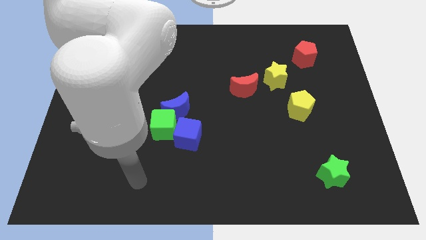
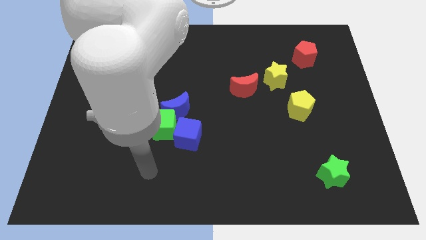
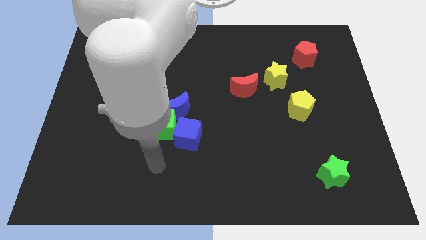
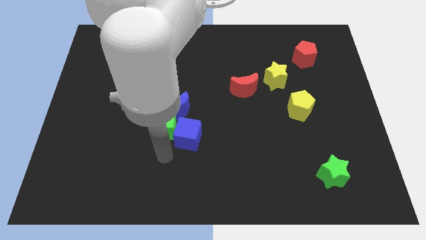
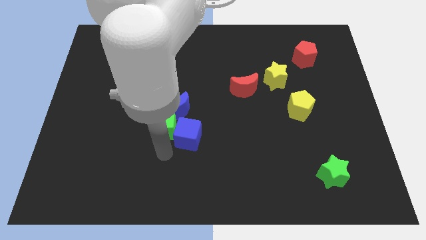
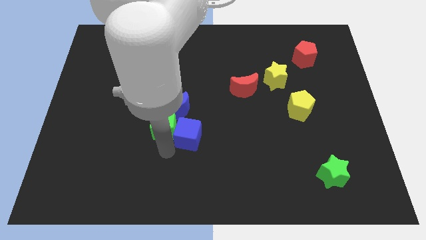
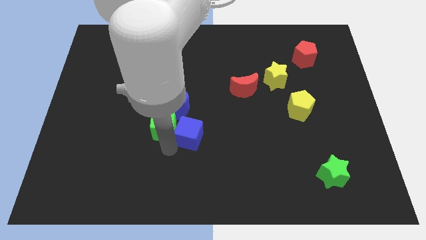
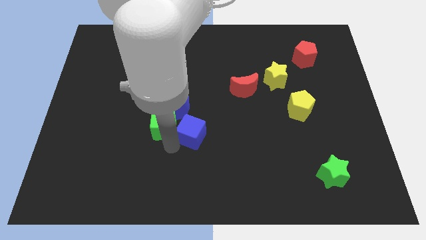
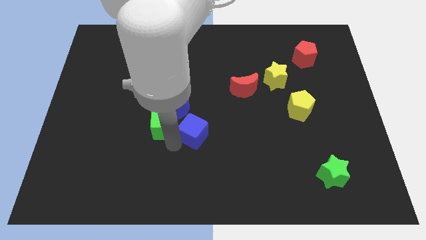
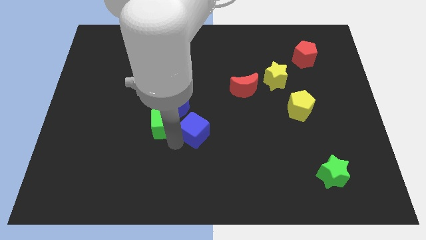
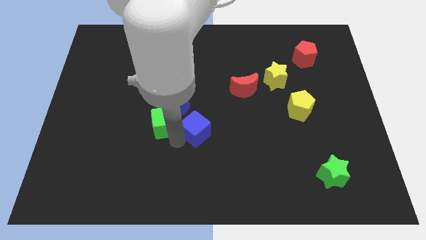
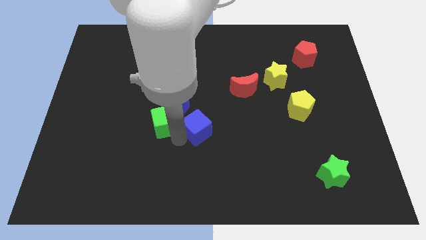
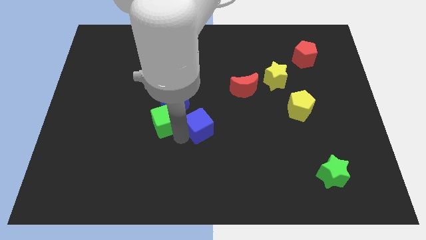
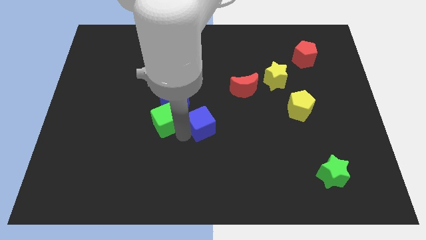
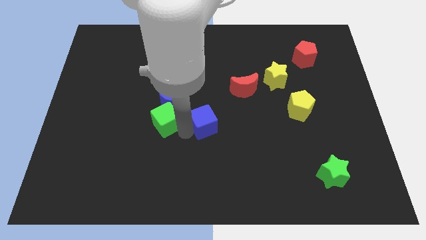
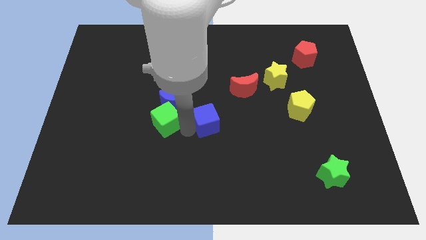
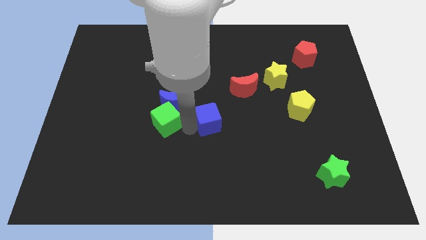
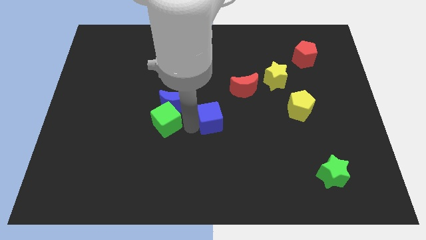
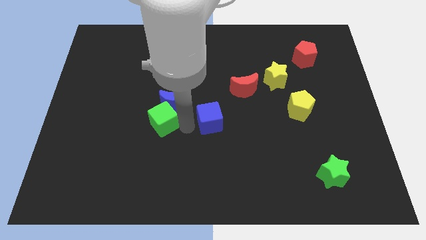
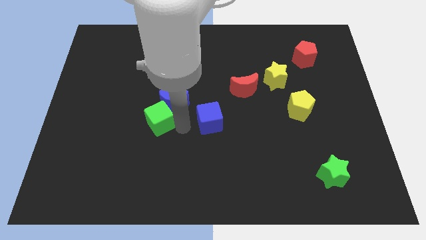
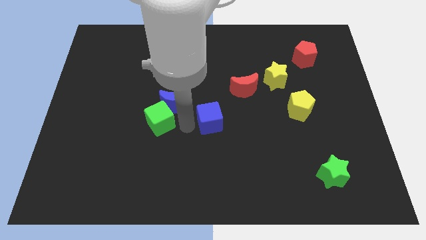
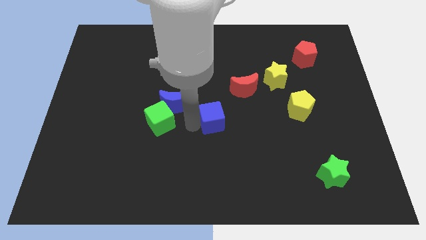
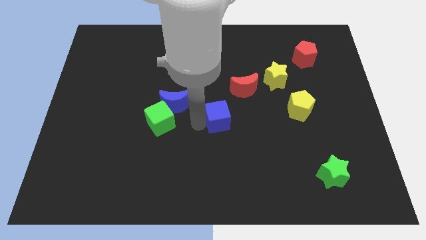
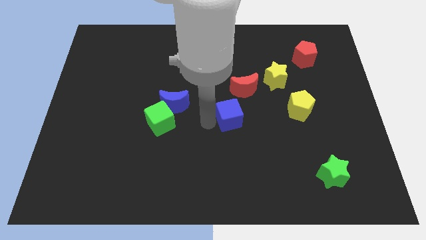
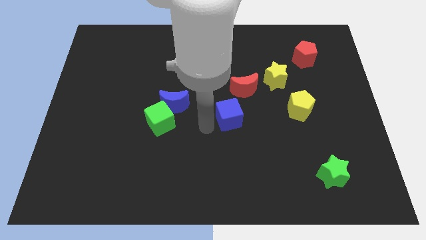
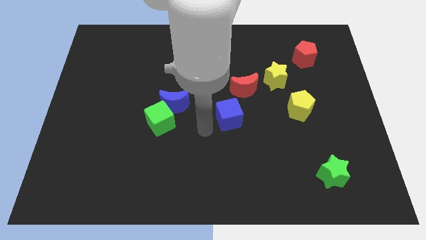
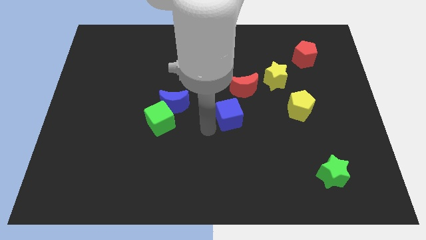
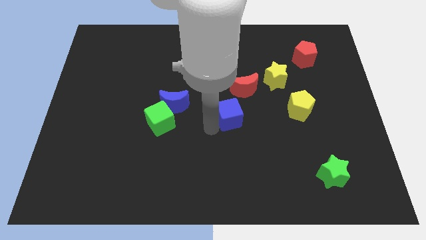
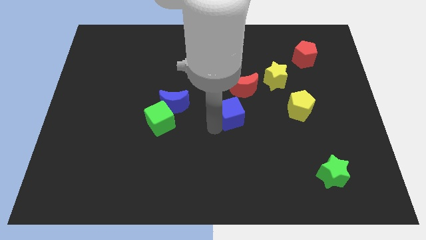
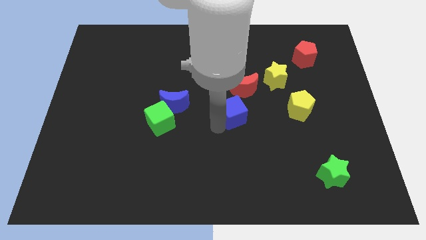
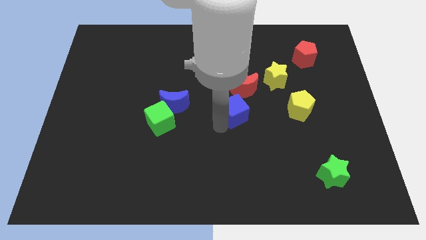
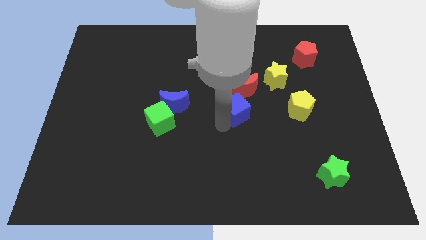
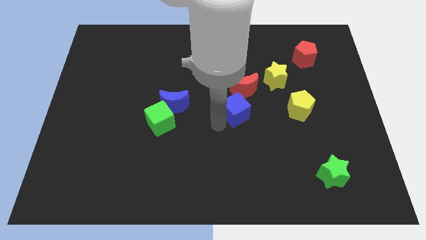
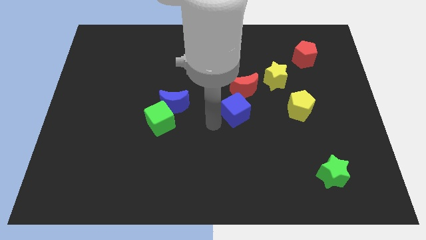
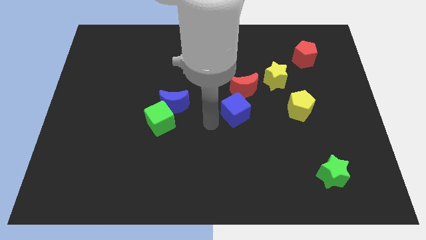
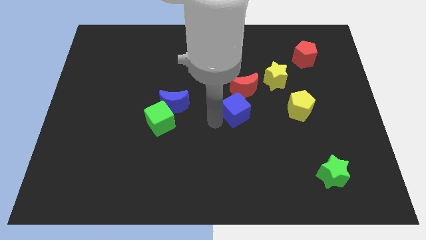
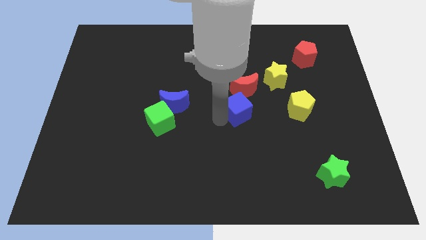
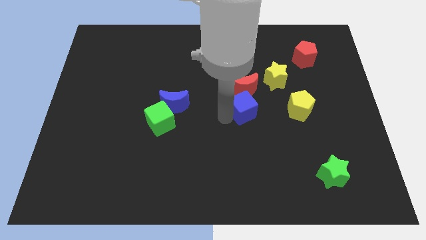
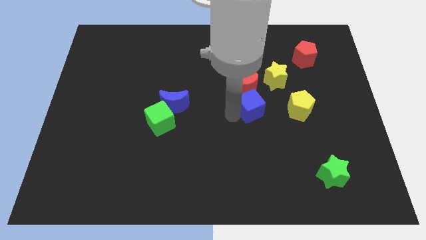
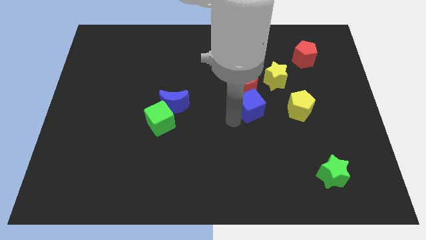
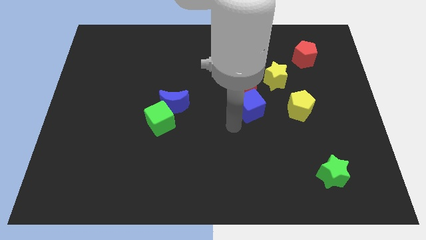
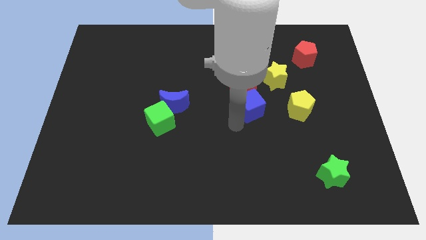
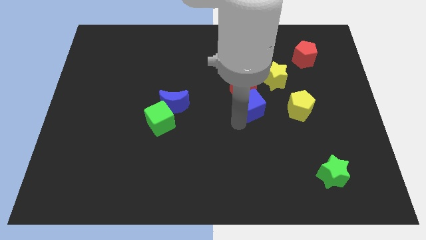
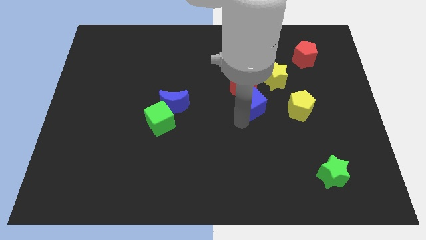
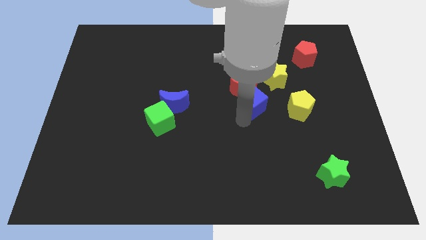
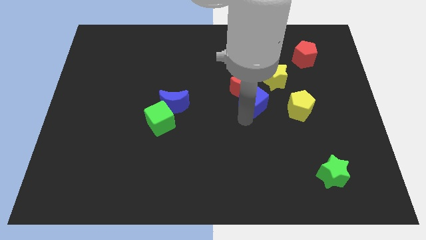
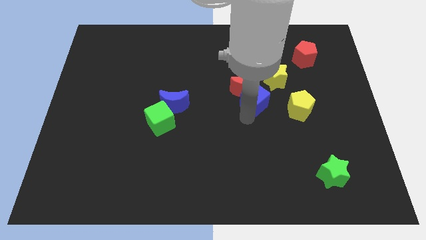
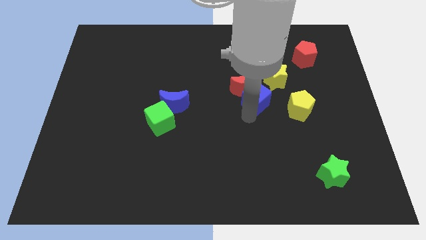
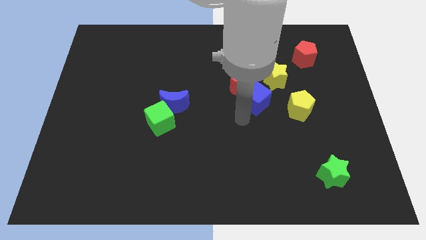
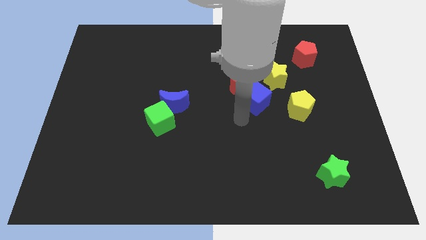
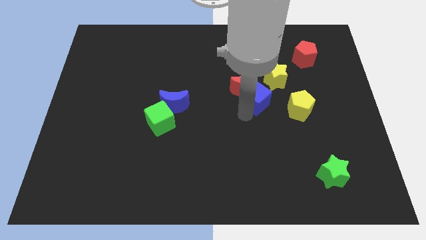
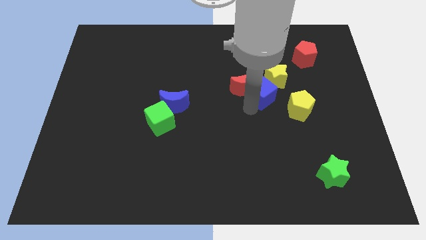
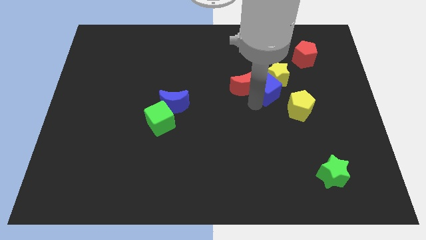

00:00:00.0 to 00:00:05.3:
move the blue cube close to the yellow star

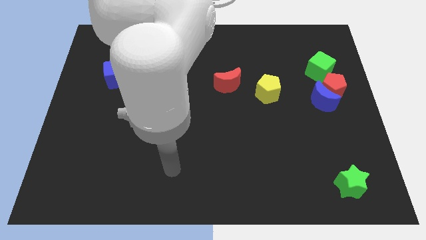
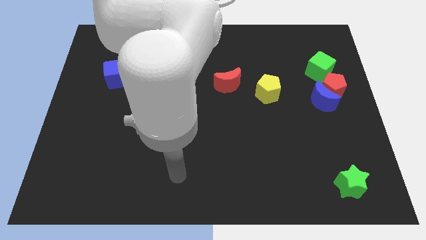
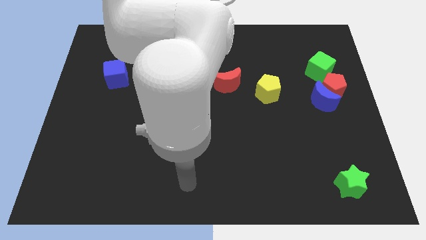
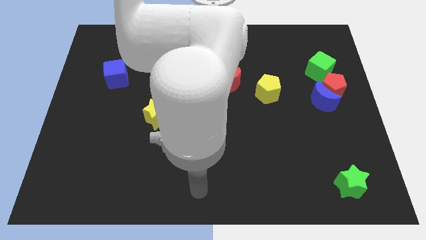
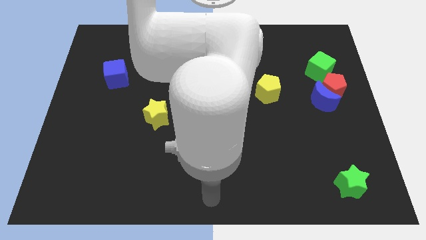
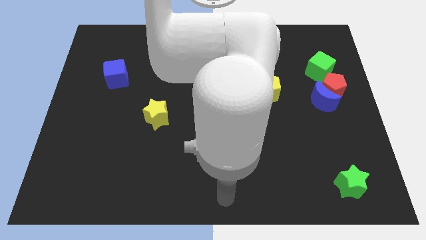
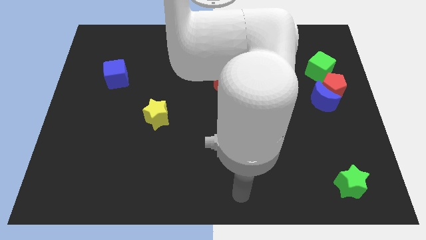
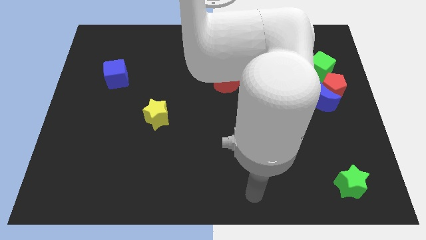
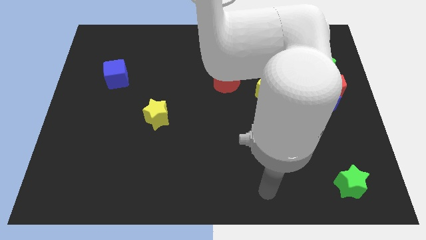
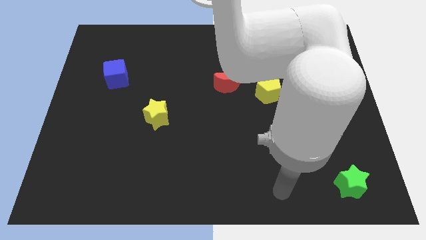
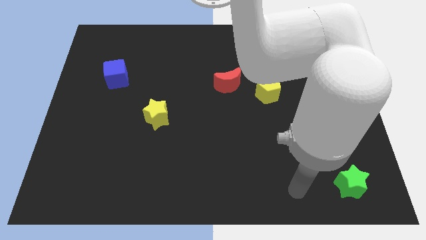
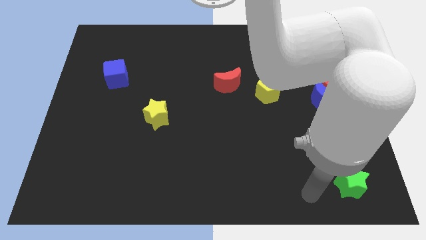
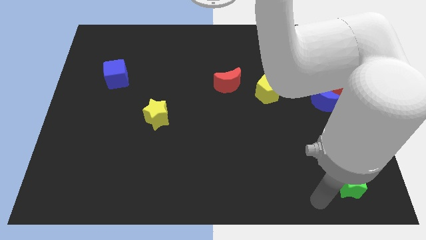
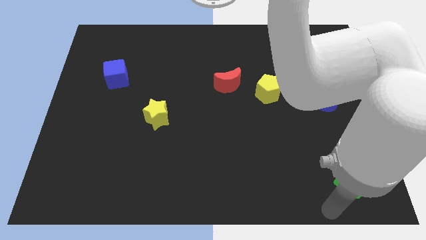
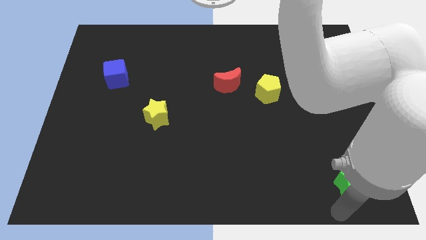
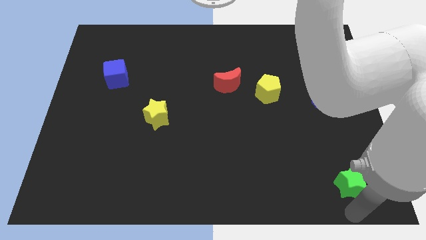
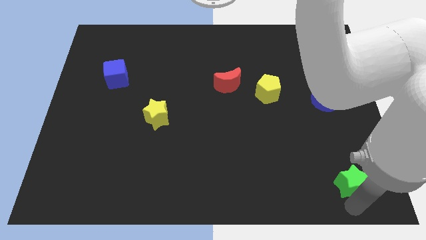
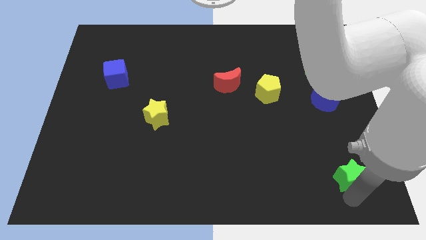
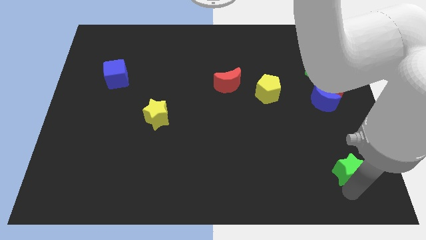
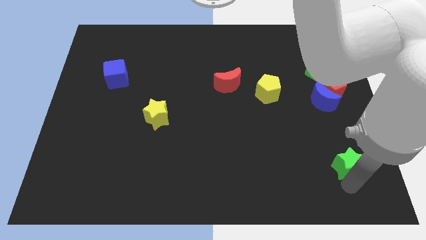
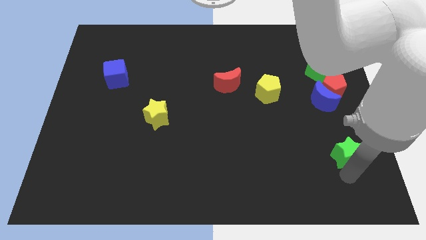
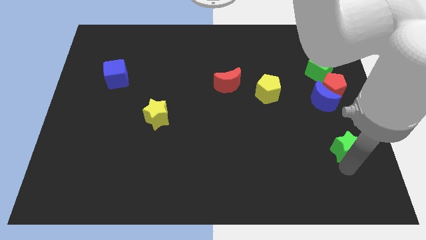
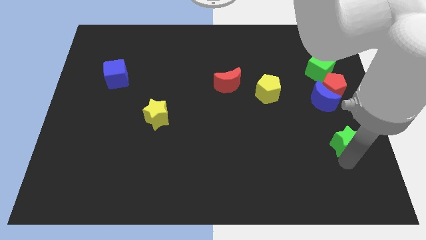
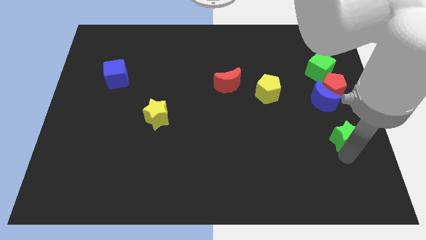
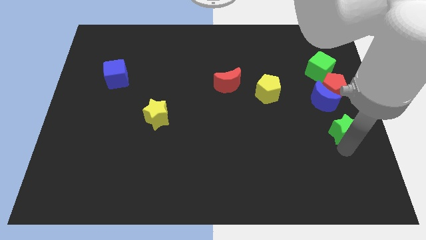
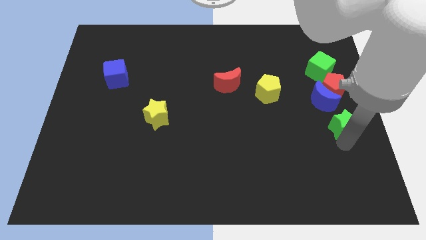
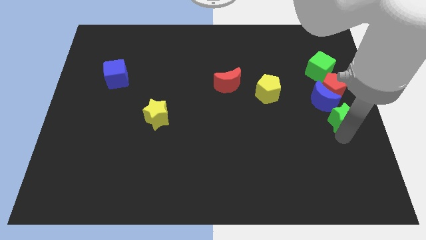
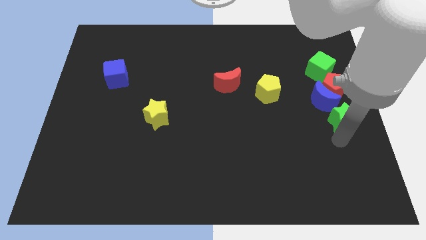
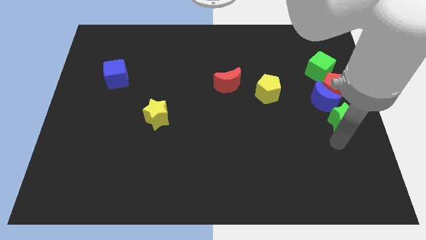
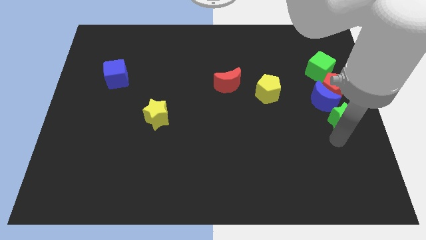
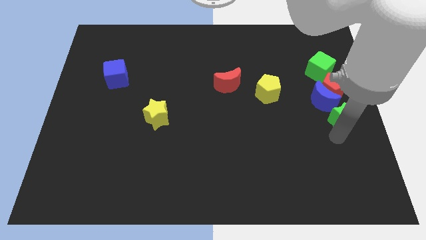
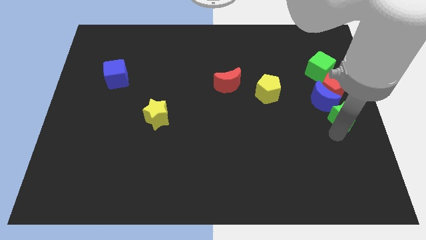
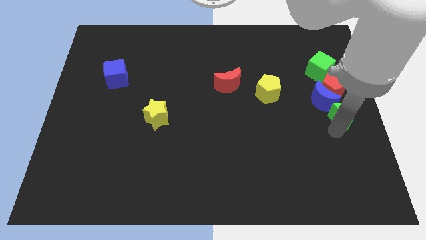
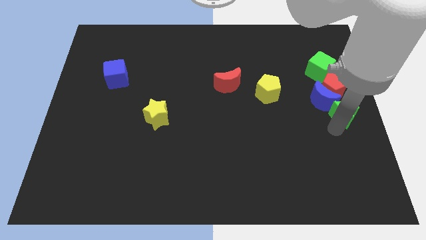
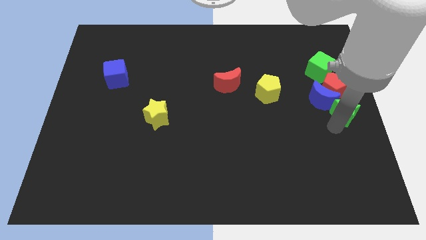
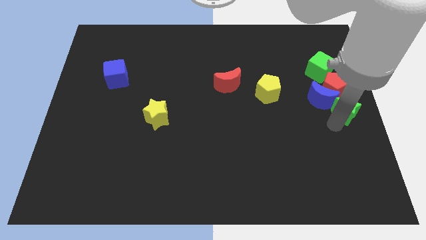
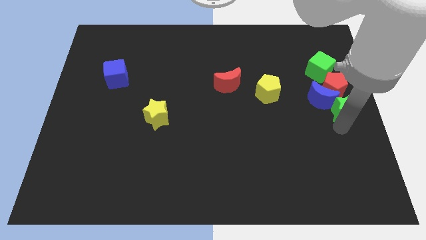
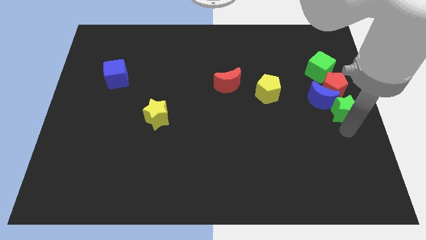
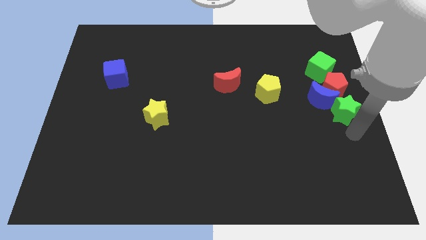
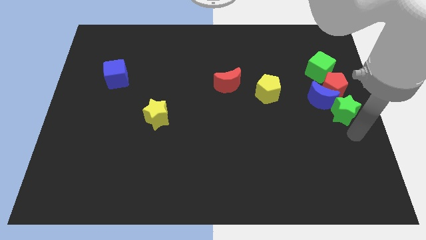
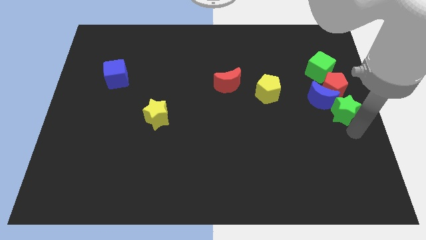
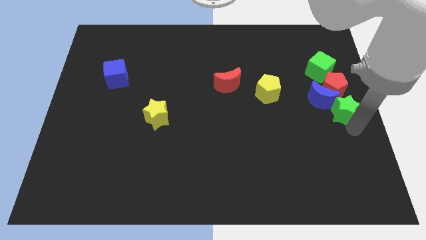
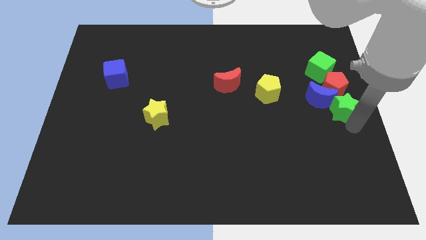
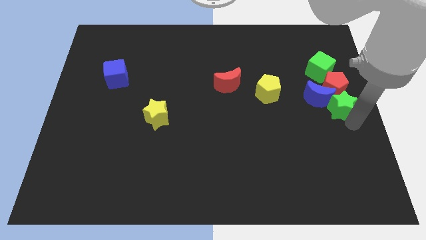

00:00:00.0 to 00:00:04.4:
push the green star to the red pentagon
